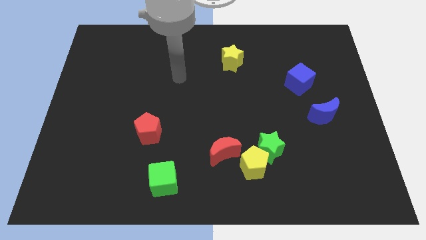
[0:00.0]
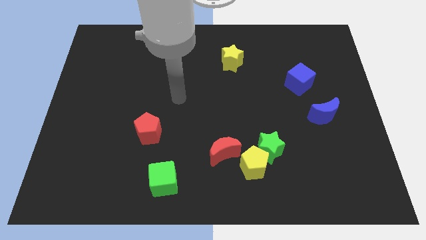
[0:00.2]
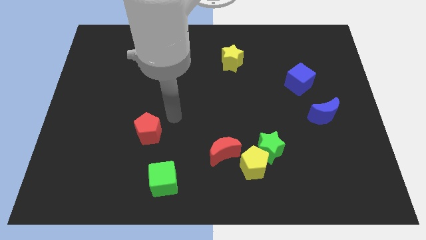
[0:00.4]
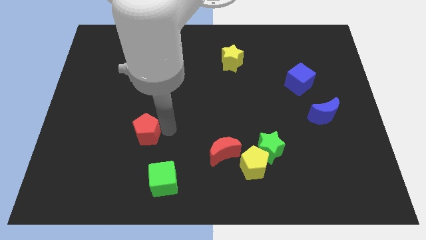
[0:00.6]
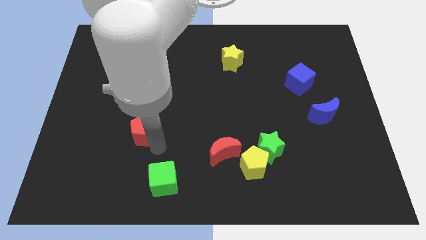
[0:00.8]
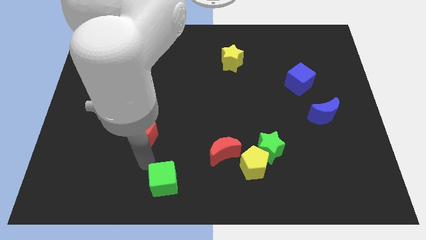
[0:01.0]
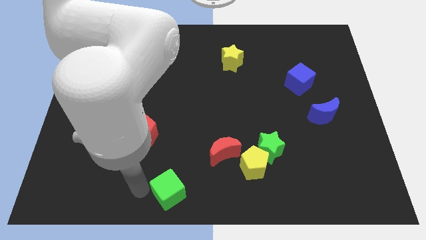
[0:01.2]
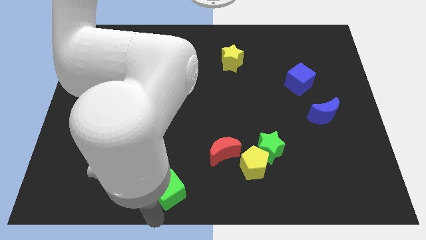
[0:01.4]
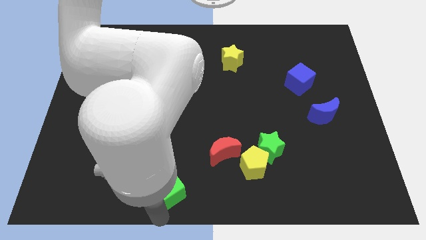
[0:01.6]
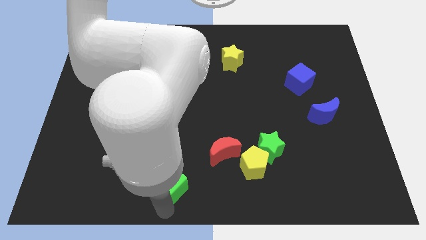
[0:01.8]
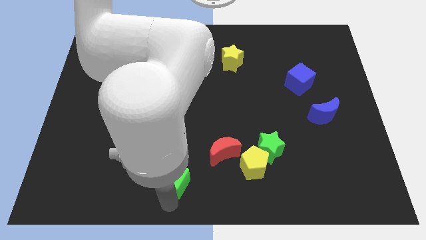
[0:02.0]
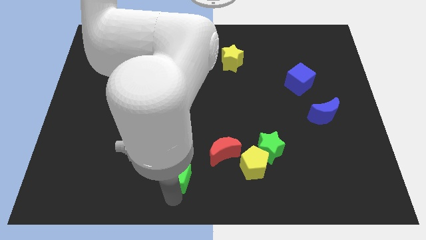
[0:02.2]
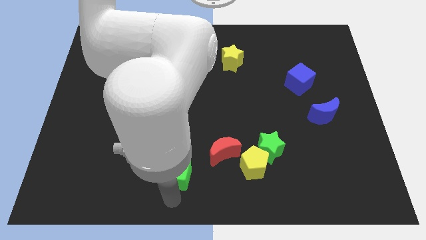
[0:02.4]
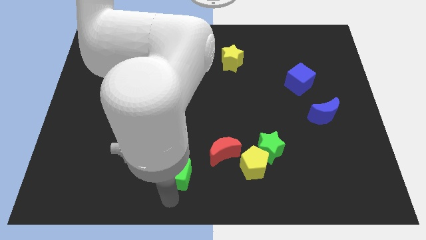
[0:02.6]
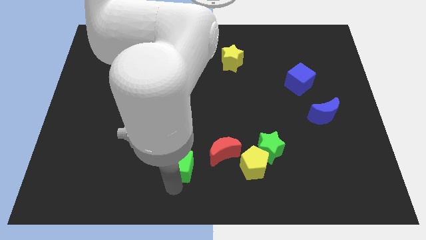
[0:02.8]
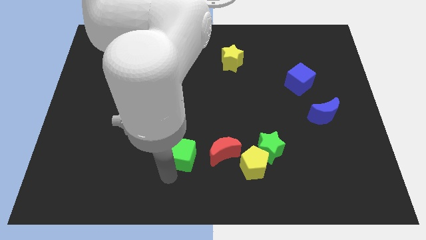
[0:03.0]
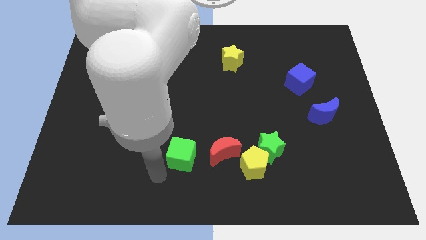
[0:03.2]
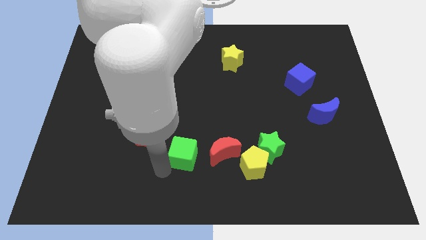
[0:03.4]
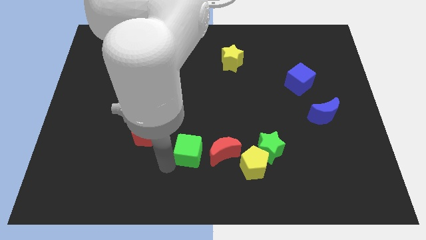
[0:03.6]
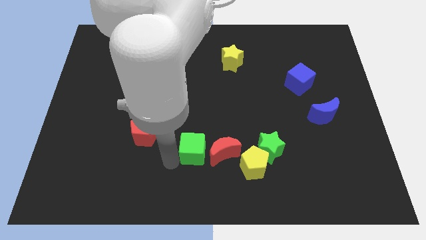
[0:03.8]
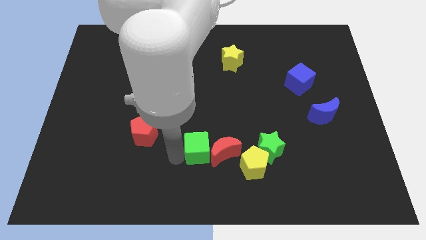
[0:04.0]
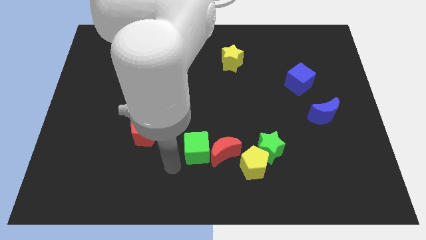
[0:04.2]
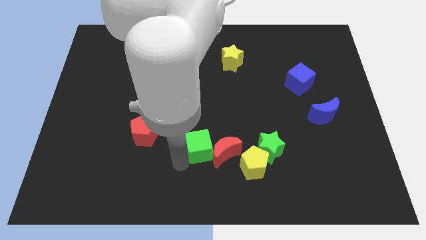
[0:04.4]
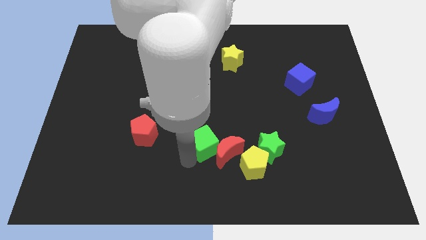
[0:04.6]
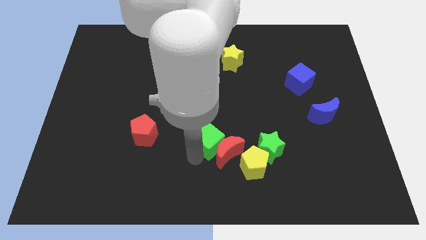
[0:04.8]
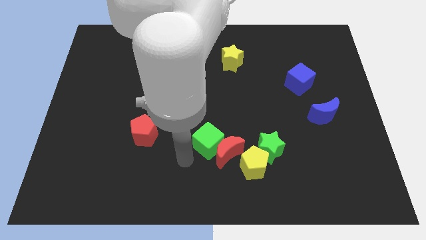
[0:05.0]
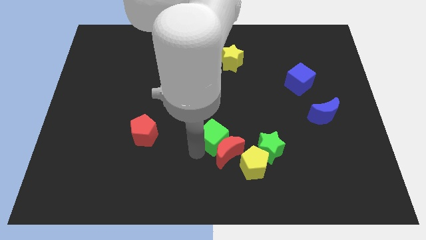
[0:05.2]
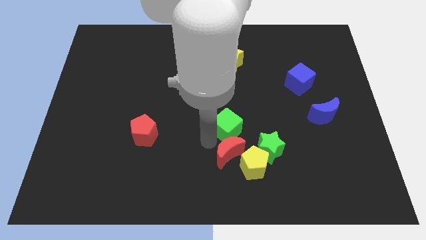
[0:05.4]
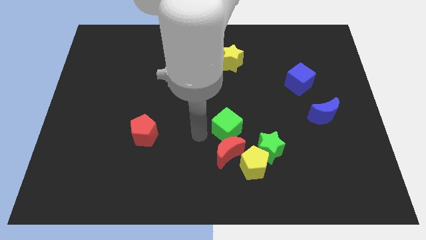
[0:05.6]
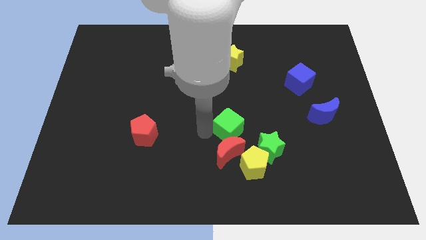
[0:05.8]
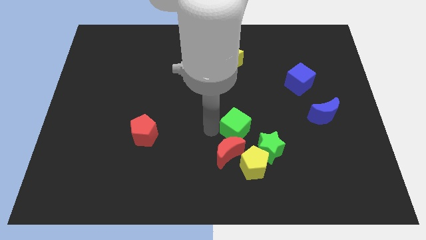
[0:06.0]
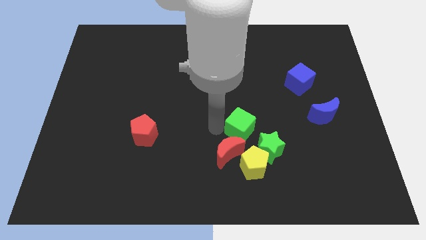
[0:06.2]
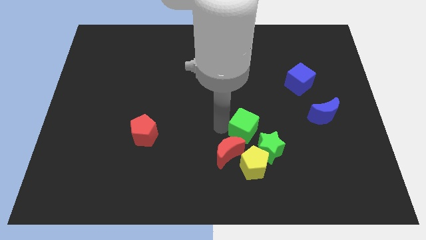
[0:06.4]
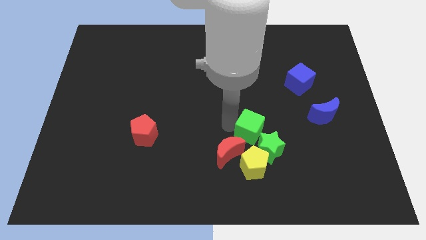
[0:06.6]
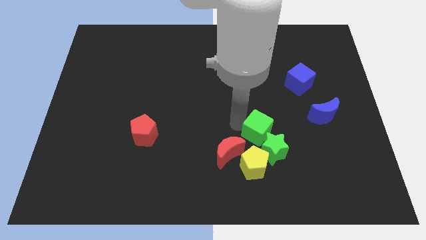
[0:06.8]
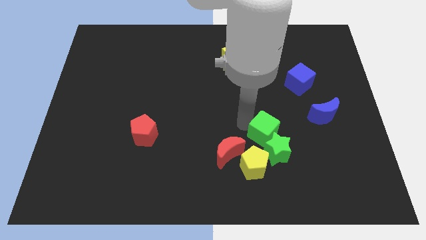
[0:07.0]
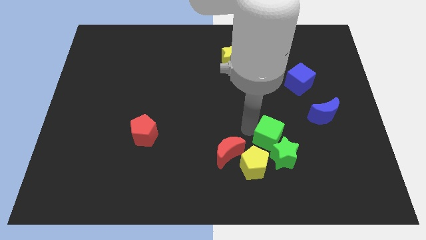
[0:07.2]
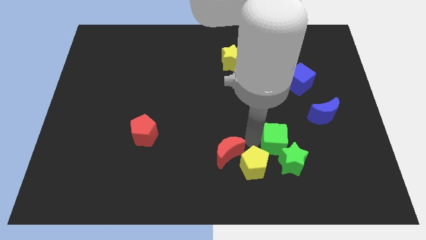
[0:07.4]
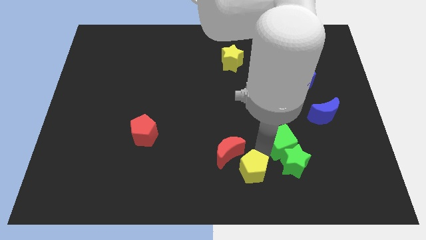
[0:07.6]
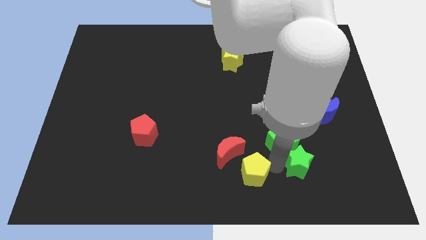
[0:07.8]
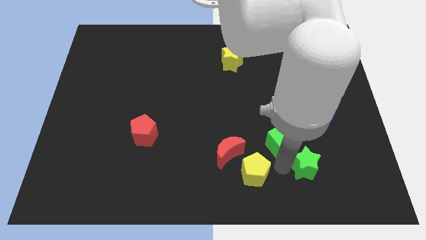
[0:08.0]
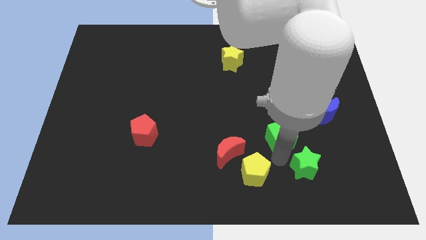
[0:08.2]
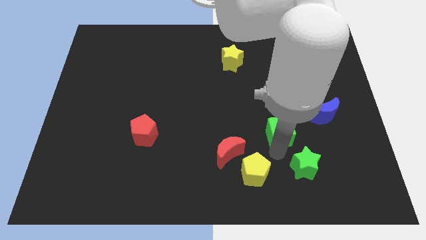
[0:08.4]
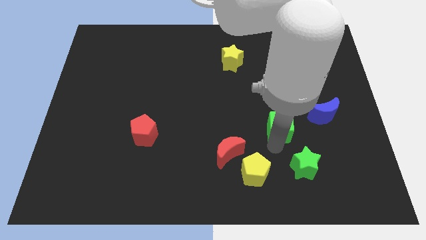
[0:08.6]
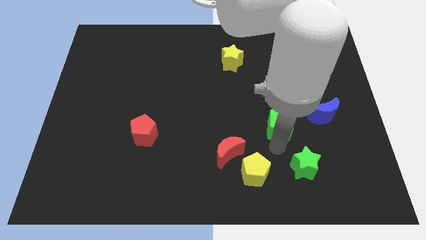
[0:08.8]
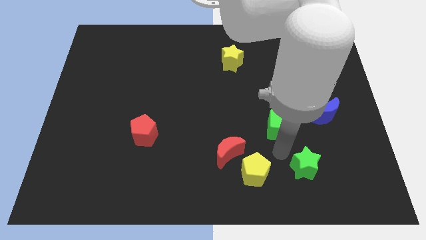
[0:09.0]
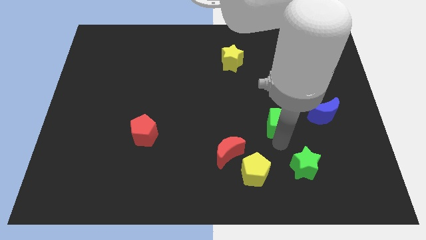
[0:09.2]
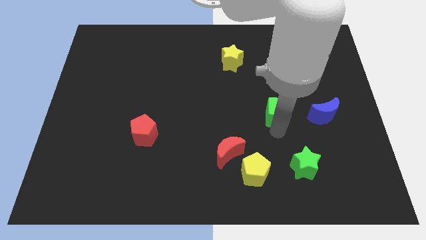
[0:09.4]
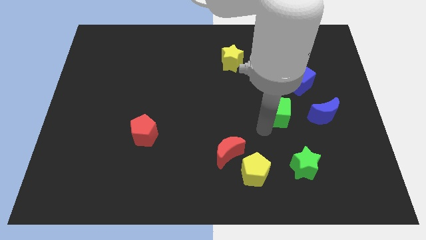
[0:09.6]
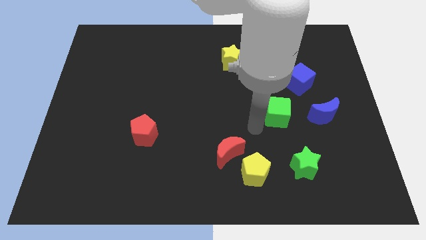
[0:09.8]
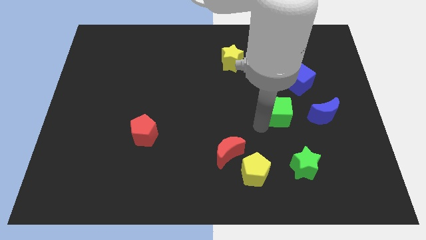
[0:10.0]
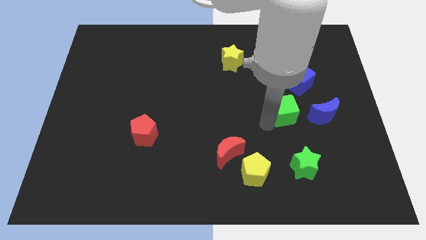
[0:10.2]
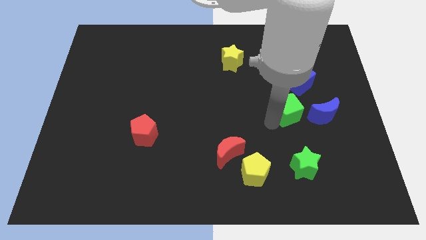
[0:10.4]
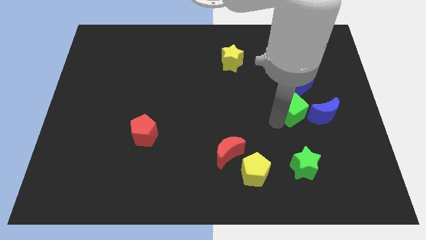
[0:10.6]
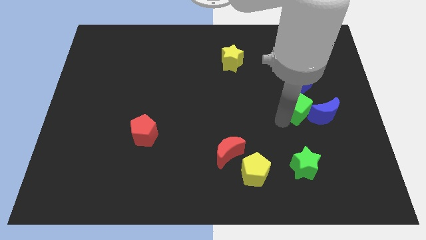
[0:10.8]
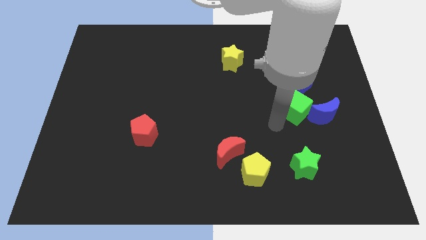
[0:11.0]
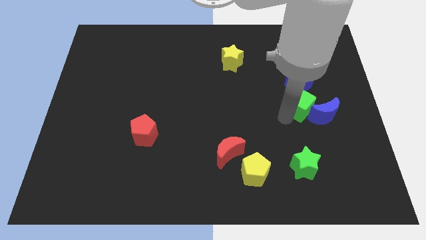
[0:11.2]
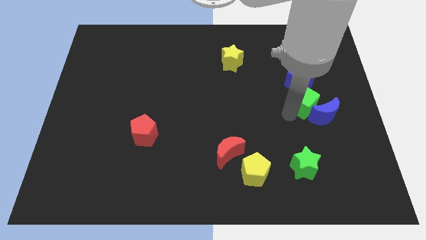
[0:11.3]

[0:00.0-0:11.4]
move the green cube to the top side of the blue moon
